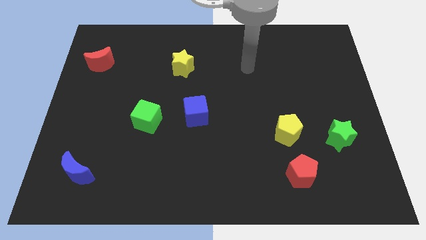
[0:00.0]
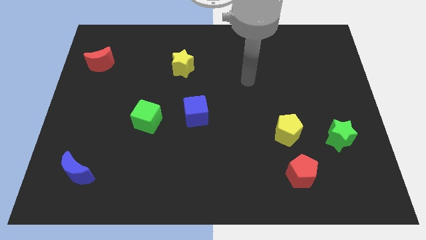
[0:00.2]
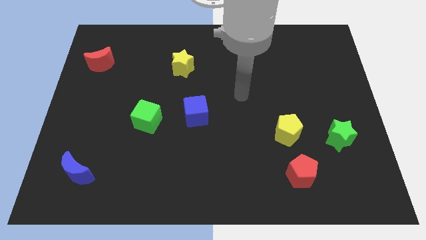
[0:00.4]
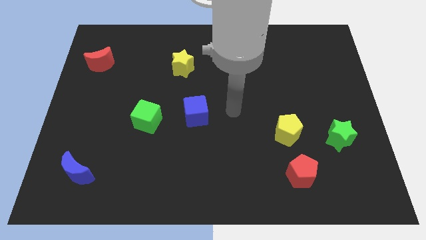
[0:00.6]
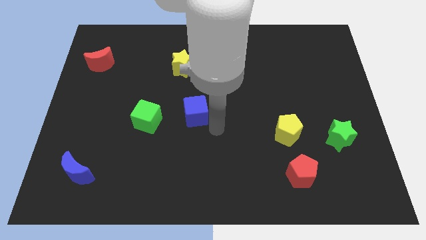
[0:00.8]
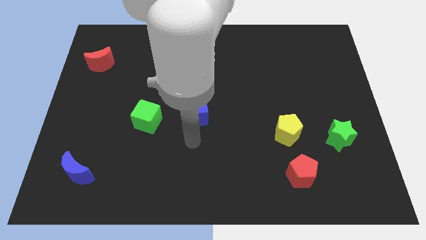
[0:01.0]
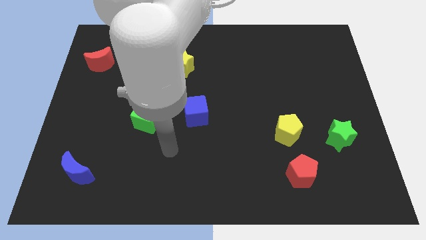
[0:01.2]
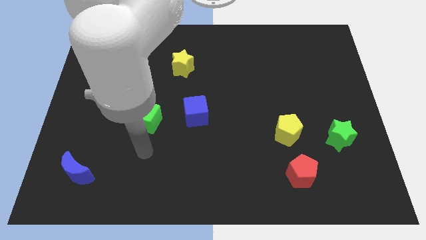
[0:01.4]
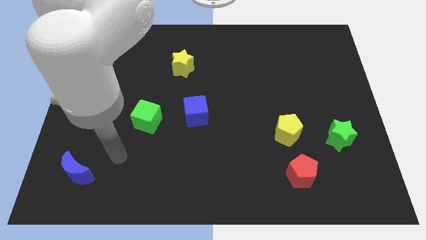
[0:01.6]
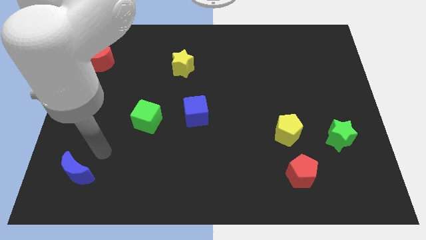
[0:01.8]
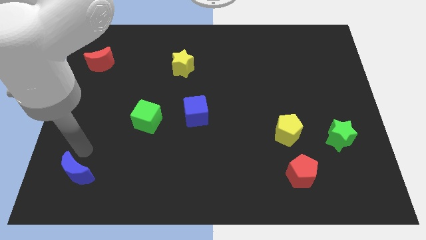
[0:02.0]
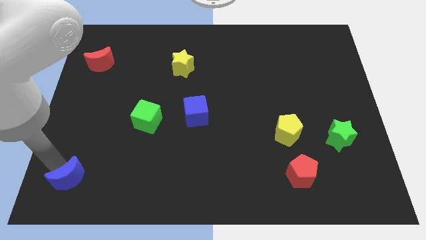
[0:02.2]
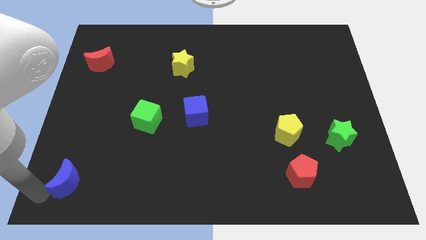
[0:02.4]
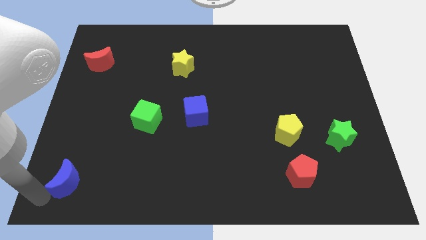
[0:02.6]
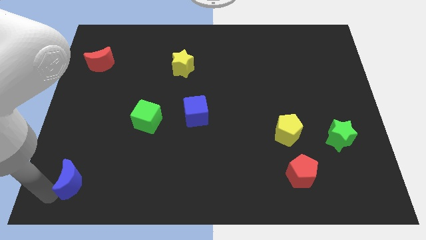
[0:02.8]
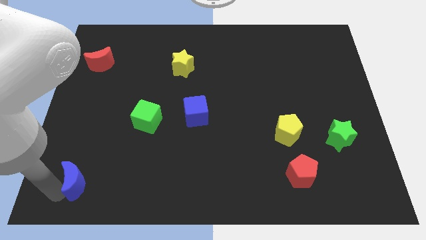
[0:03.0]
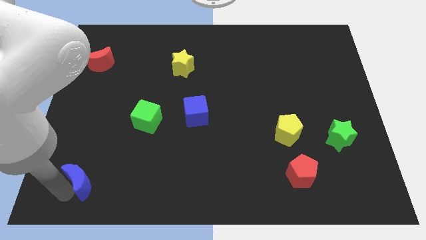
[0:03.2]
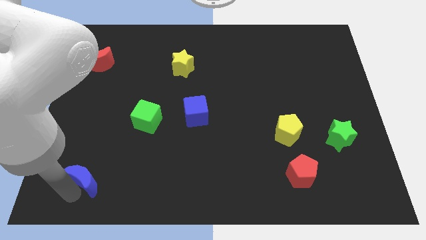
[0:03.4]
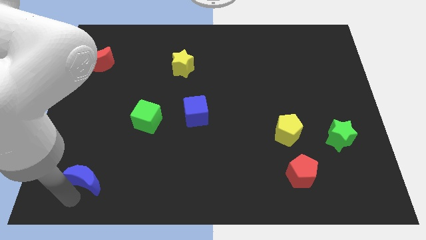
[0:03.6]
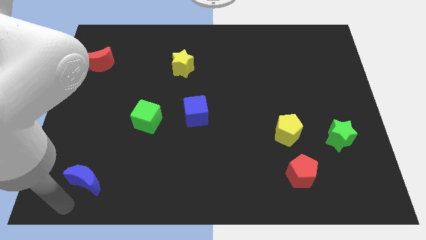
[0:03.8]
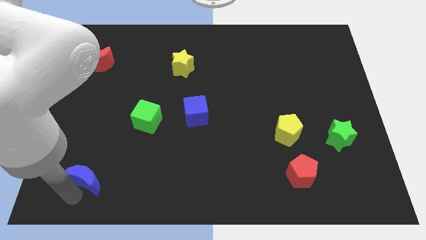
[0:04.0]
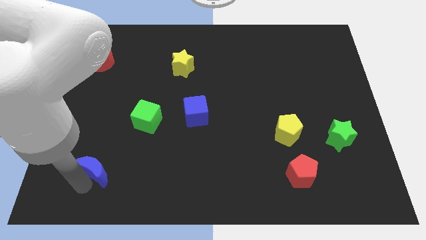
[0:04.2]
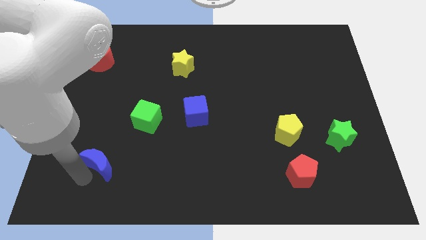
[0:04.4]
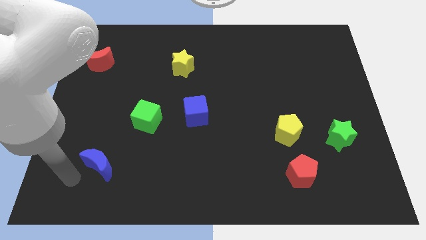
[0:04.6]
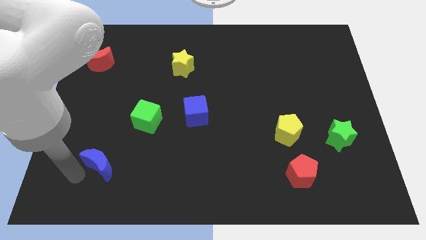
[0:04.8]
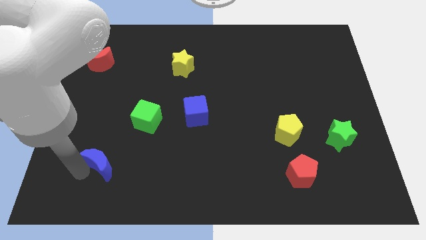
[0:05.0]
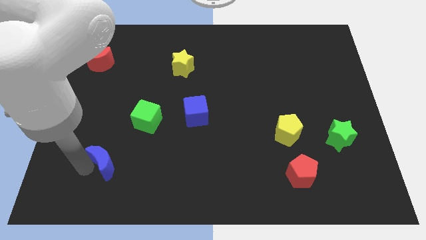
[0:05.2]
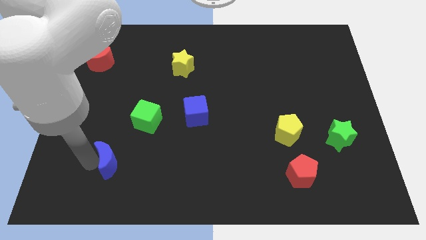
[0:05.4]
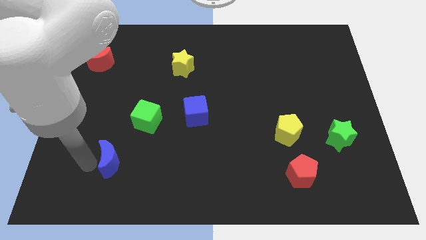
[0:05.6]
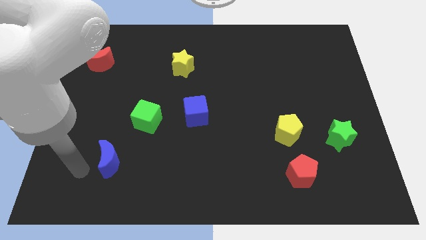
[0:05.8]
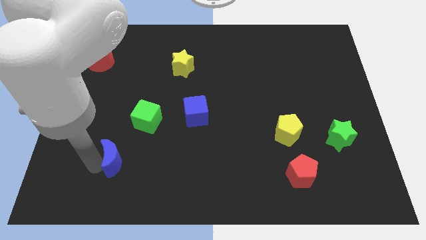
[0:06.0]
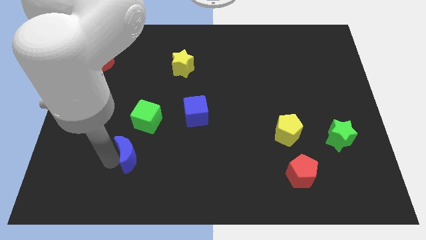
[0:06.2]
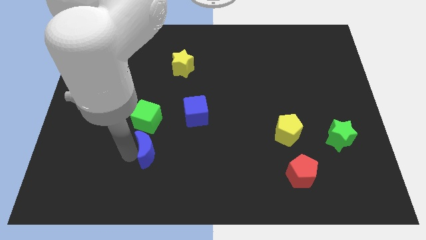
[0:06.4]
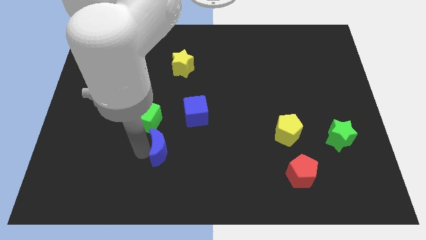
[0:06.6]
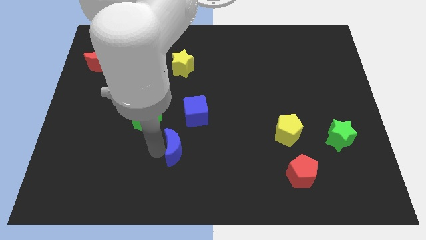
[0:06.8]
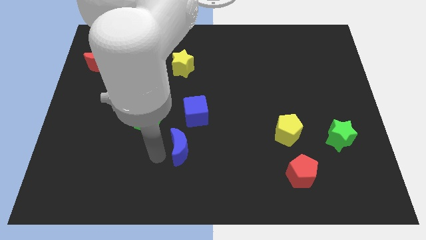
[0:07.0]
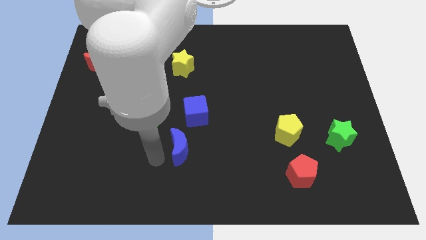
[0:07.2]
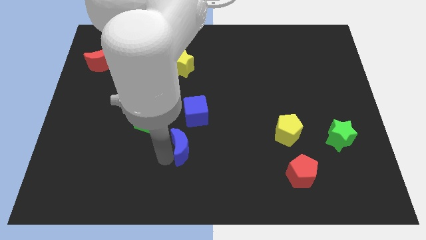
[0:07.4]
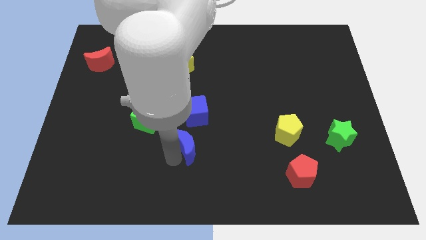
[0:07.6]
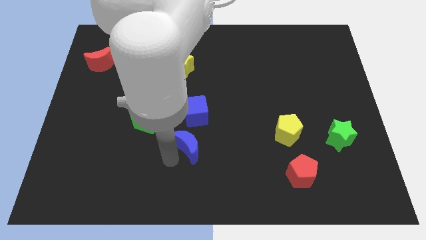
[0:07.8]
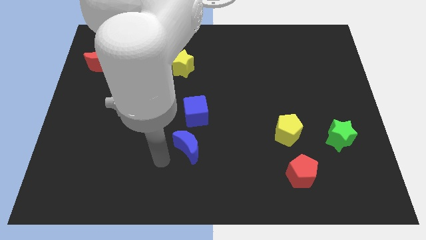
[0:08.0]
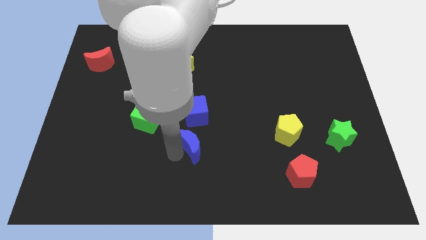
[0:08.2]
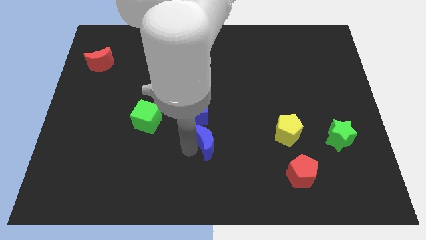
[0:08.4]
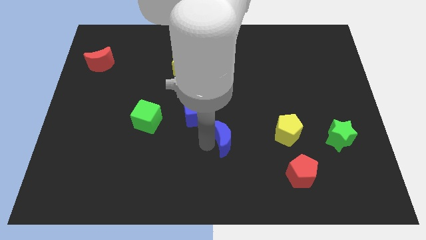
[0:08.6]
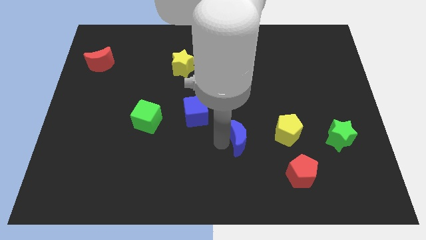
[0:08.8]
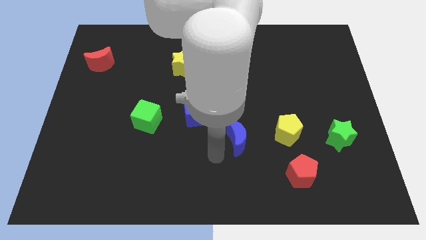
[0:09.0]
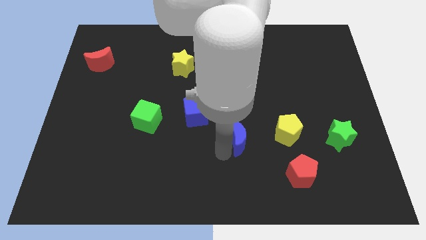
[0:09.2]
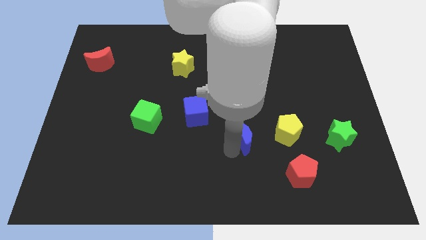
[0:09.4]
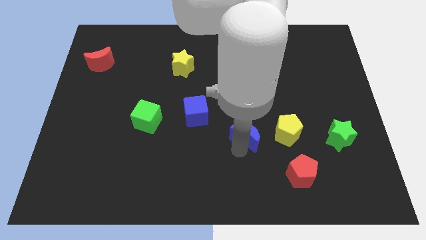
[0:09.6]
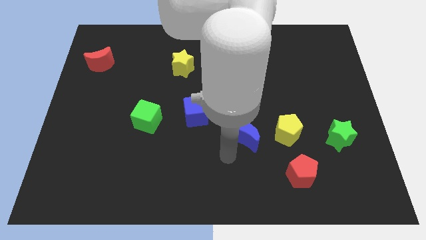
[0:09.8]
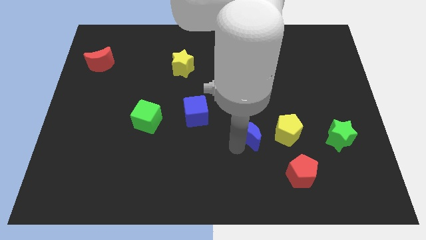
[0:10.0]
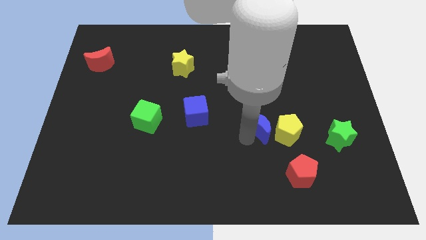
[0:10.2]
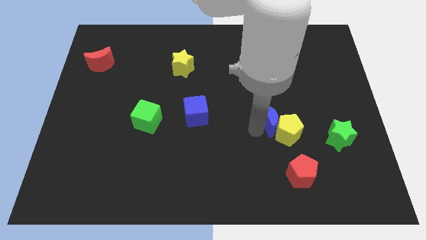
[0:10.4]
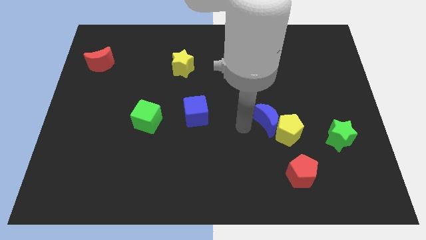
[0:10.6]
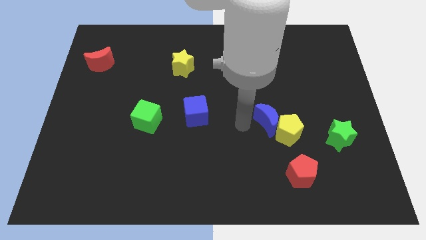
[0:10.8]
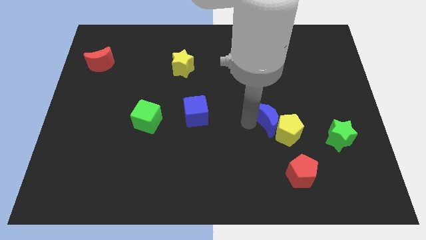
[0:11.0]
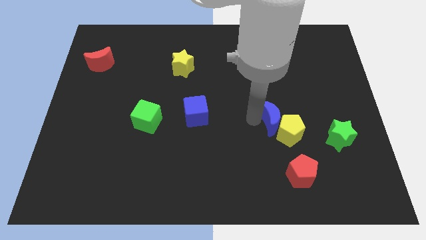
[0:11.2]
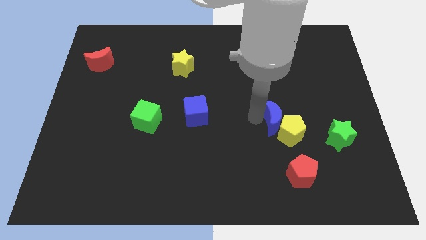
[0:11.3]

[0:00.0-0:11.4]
put the blue moon above the red pentagon

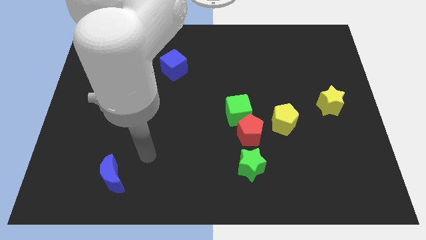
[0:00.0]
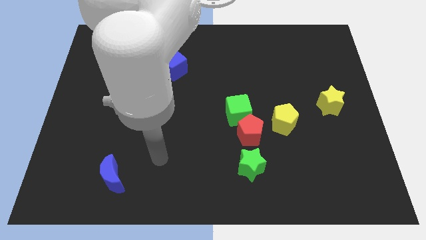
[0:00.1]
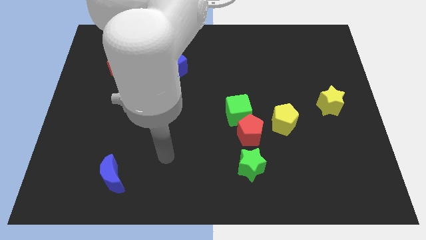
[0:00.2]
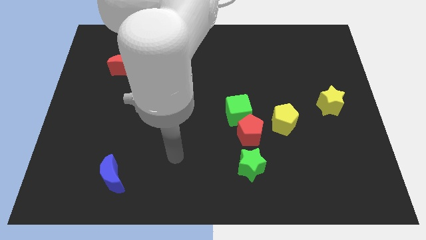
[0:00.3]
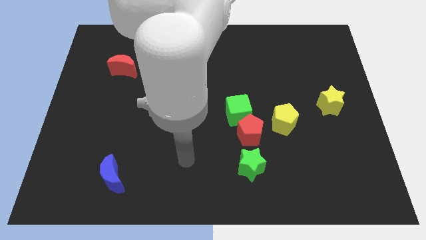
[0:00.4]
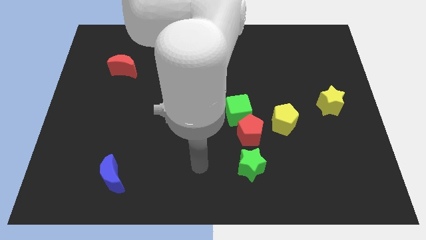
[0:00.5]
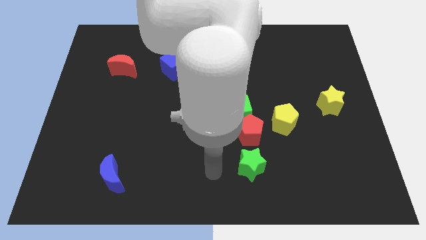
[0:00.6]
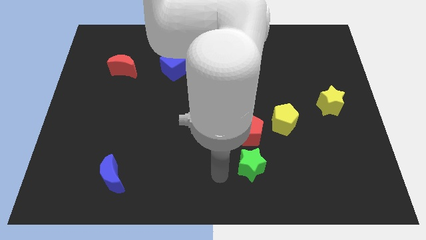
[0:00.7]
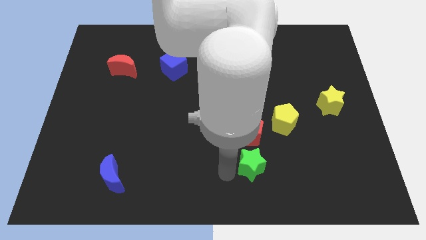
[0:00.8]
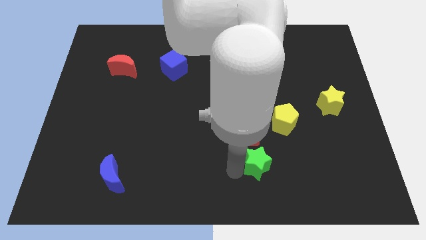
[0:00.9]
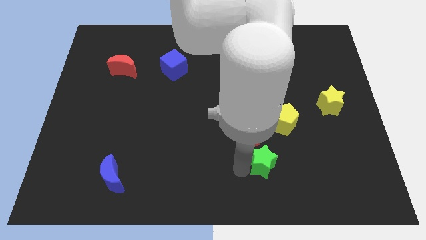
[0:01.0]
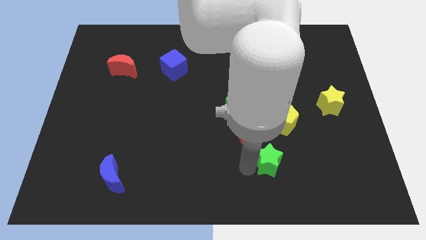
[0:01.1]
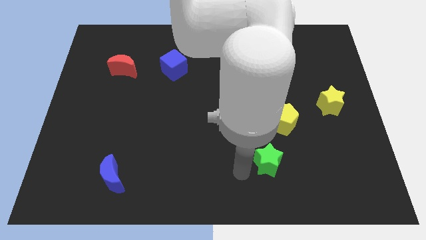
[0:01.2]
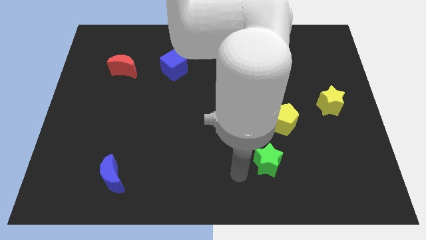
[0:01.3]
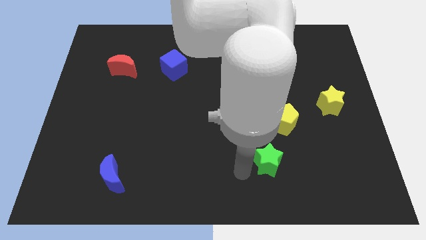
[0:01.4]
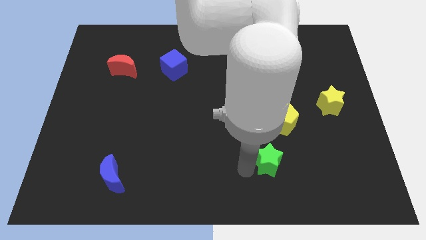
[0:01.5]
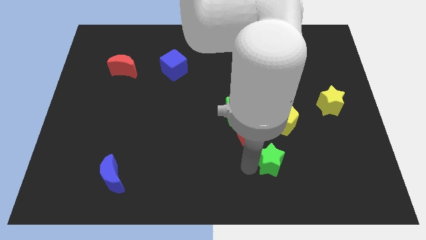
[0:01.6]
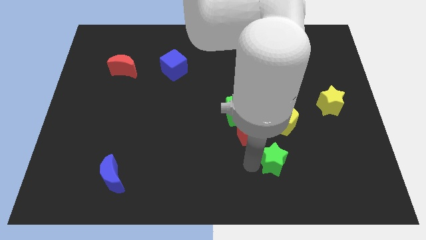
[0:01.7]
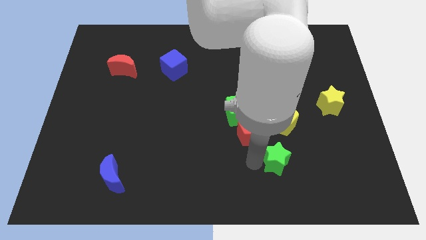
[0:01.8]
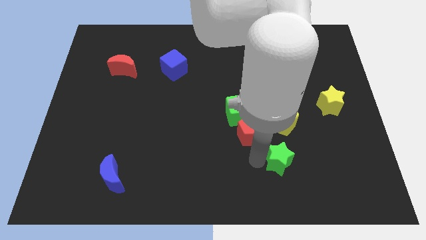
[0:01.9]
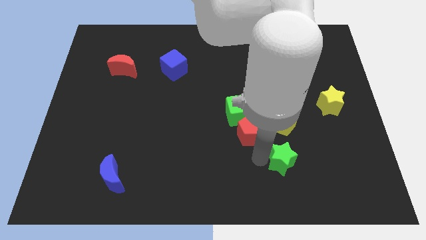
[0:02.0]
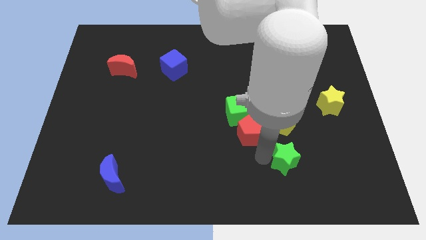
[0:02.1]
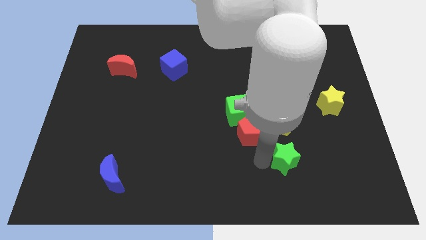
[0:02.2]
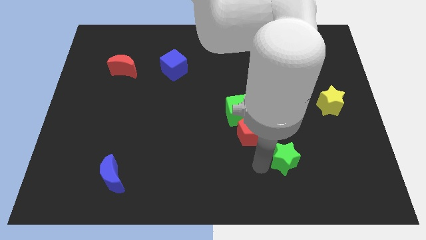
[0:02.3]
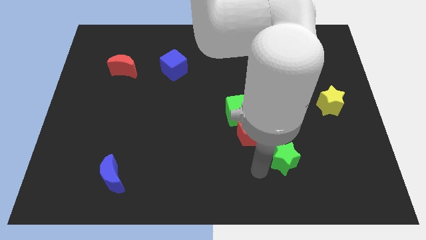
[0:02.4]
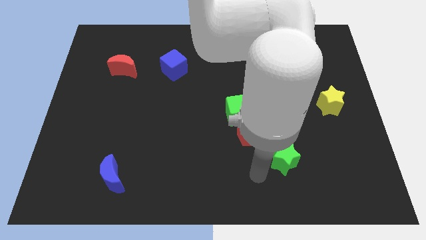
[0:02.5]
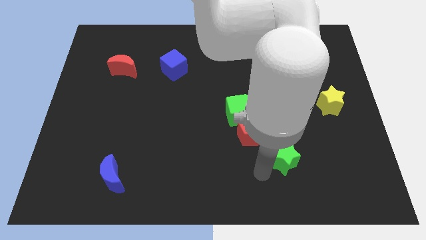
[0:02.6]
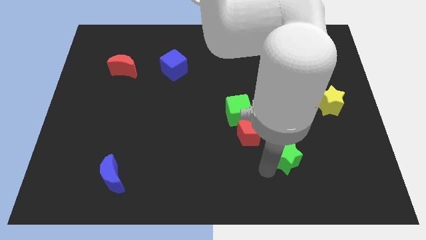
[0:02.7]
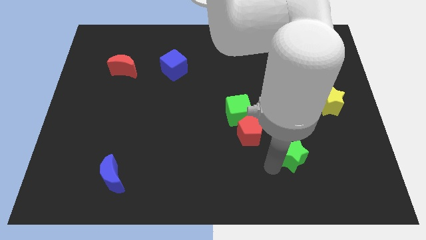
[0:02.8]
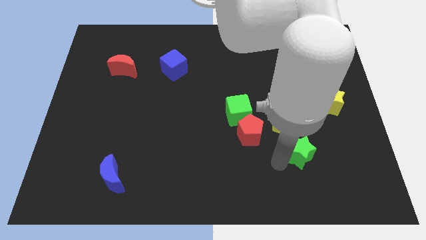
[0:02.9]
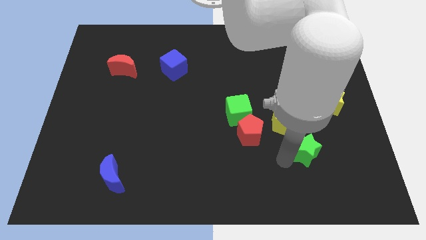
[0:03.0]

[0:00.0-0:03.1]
move the green star to the right of the red pentagon
